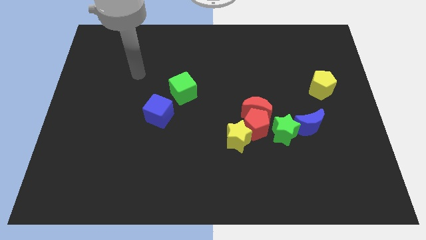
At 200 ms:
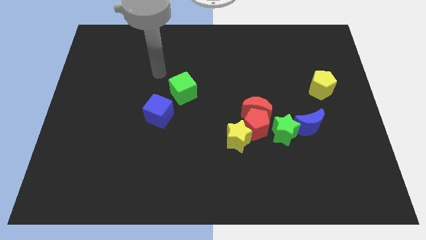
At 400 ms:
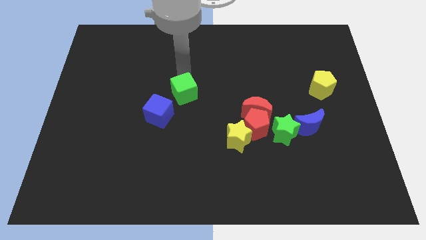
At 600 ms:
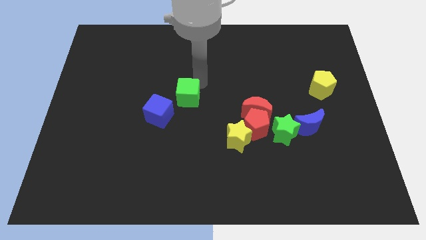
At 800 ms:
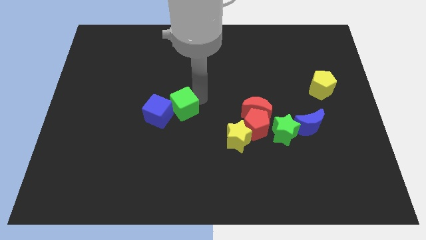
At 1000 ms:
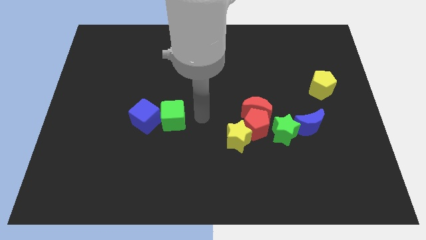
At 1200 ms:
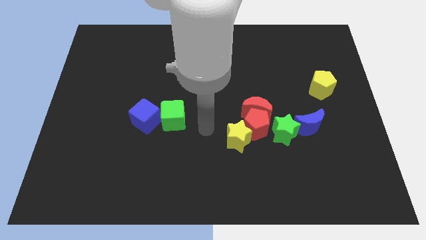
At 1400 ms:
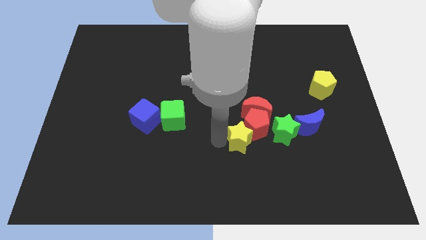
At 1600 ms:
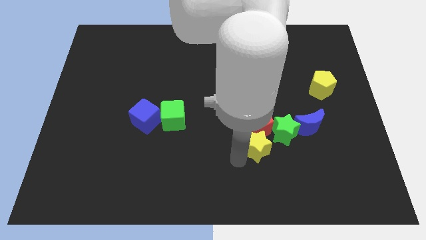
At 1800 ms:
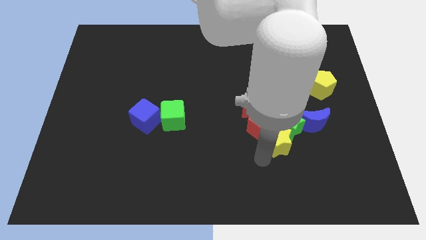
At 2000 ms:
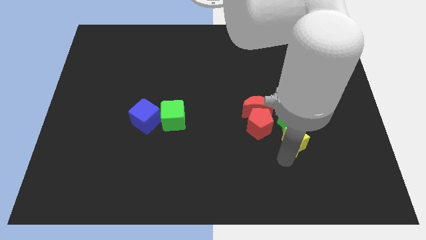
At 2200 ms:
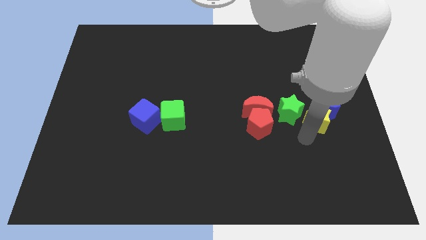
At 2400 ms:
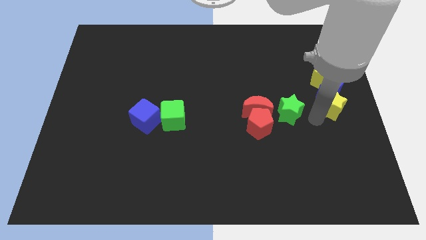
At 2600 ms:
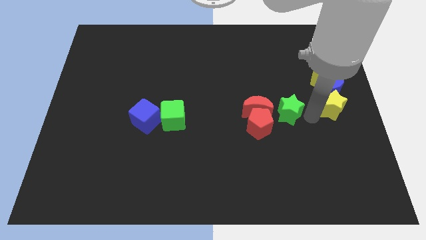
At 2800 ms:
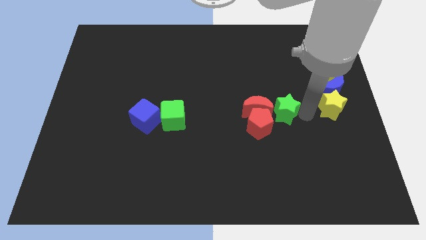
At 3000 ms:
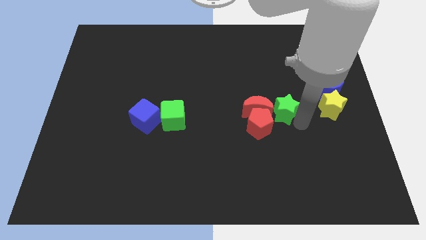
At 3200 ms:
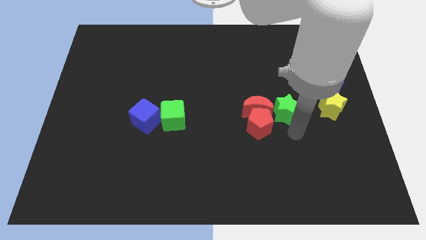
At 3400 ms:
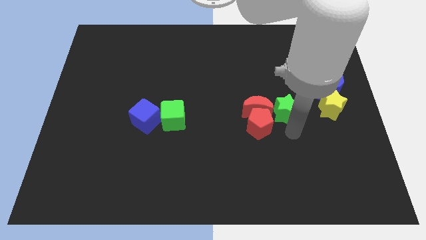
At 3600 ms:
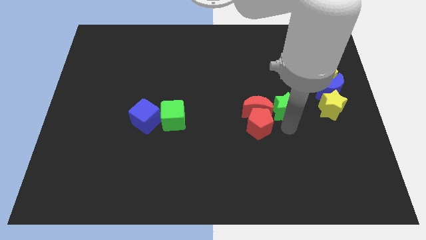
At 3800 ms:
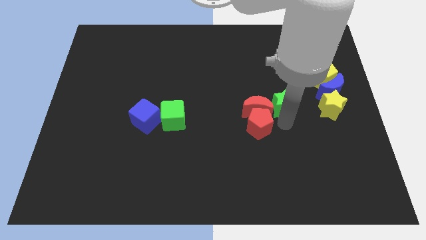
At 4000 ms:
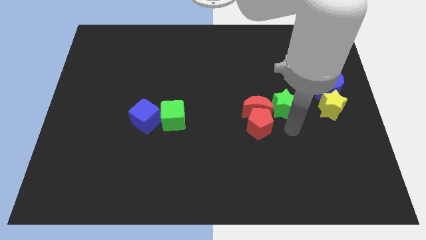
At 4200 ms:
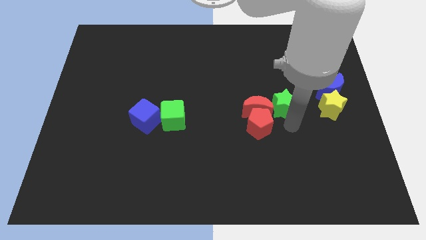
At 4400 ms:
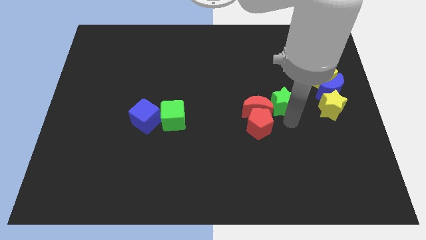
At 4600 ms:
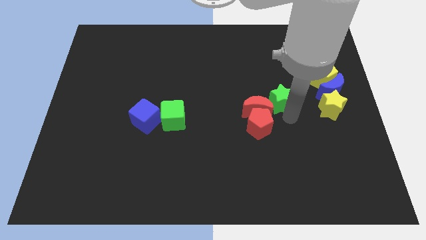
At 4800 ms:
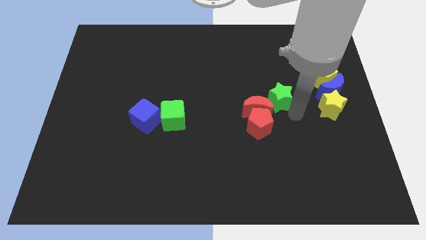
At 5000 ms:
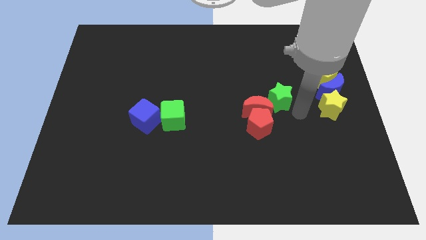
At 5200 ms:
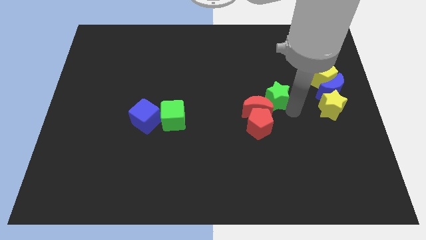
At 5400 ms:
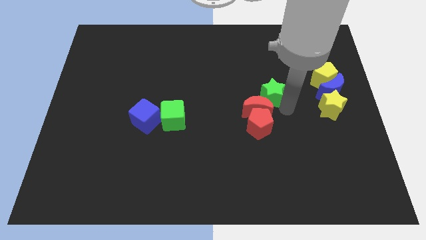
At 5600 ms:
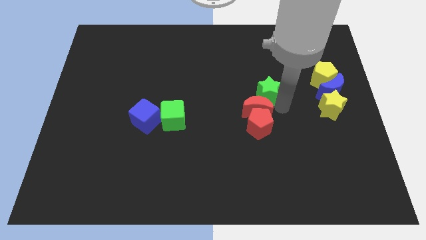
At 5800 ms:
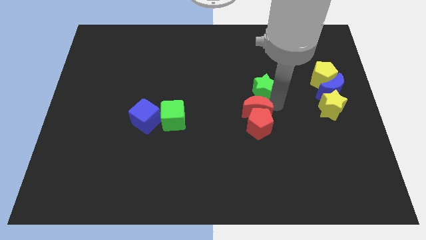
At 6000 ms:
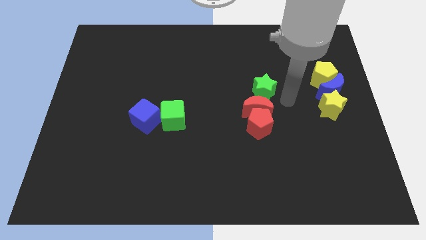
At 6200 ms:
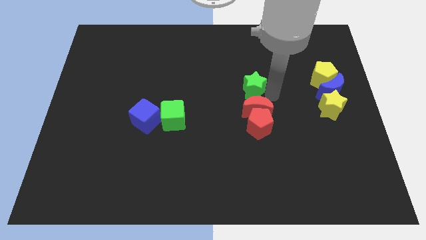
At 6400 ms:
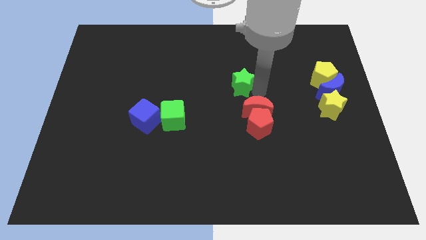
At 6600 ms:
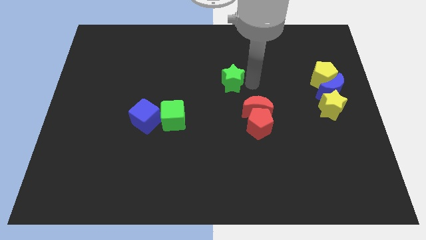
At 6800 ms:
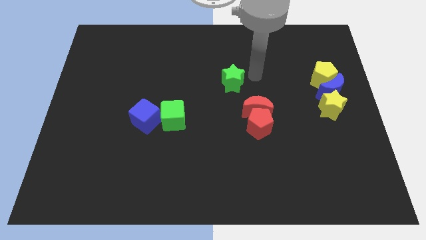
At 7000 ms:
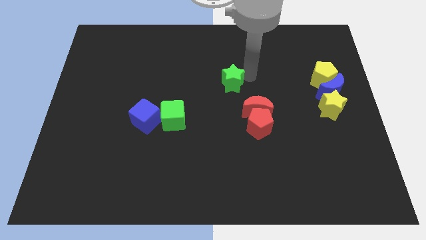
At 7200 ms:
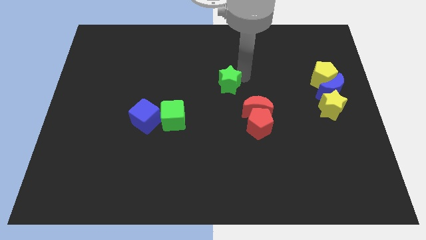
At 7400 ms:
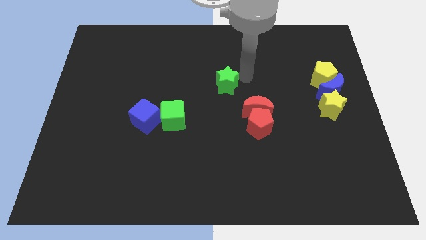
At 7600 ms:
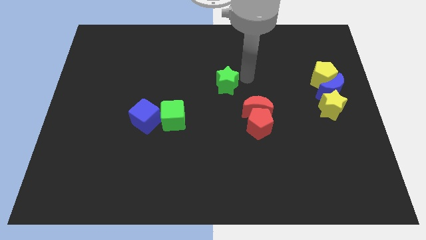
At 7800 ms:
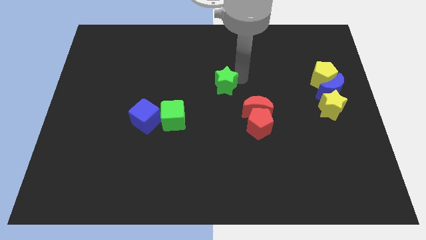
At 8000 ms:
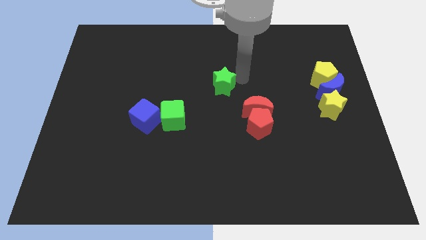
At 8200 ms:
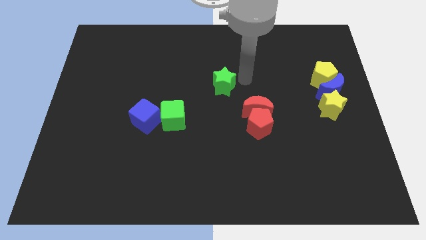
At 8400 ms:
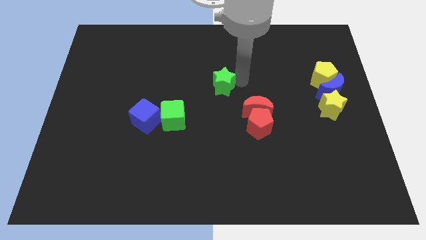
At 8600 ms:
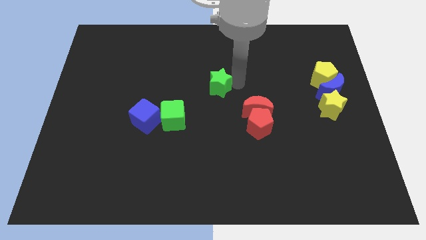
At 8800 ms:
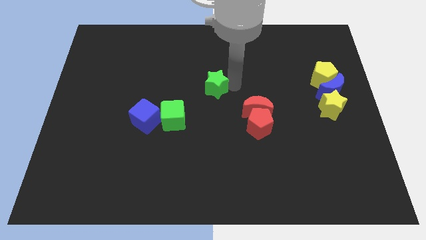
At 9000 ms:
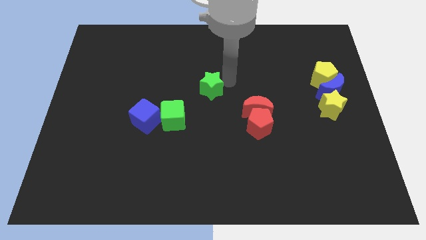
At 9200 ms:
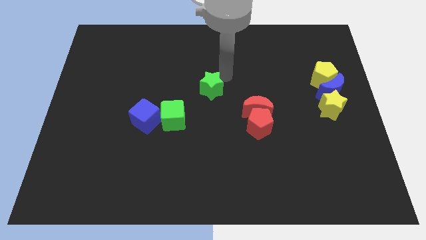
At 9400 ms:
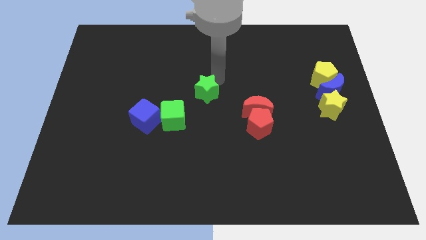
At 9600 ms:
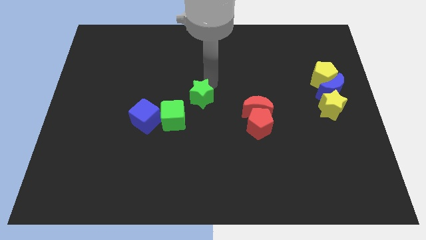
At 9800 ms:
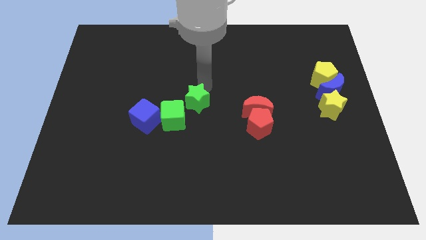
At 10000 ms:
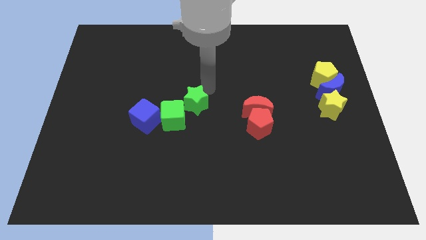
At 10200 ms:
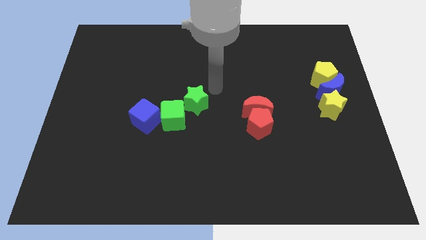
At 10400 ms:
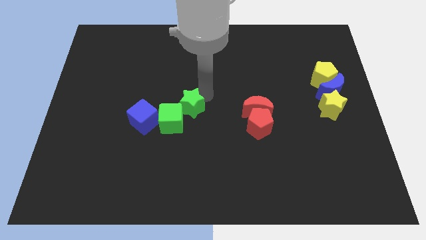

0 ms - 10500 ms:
move the green star next to the green cube

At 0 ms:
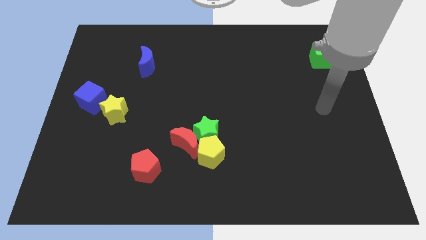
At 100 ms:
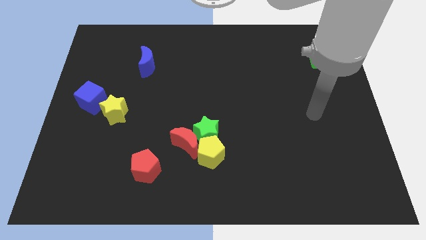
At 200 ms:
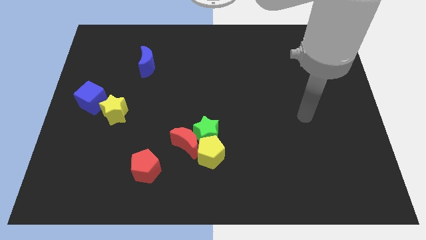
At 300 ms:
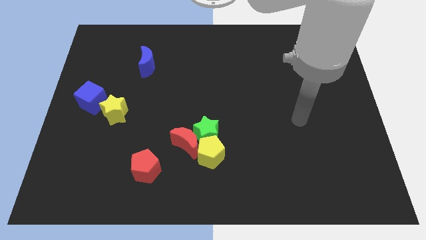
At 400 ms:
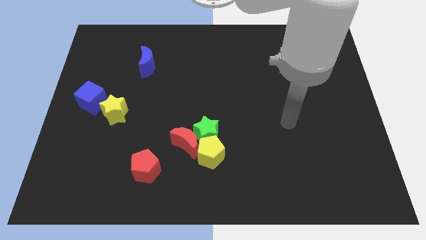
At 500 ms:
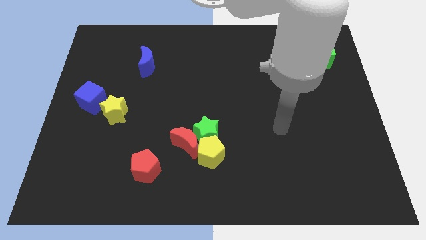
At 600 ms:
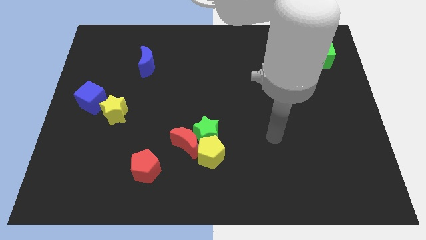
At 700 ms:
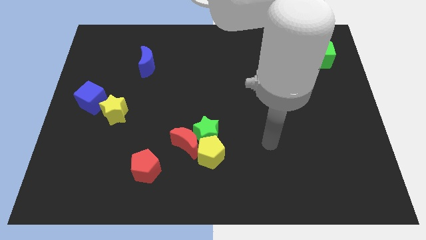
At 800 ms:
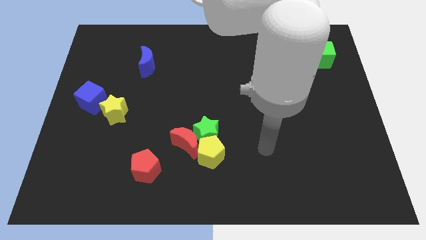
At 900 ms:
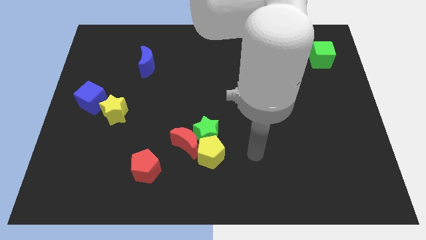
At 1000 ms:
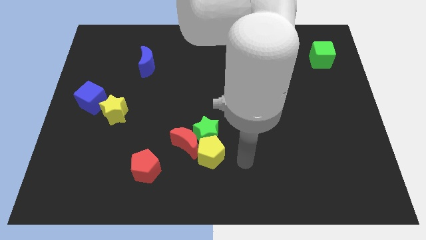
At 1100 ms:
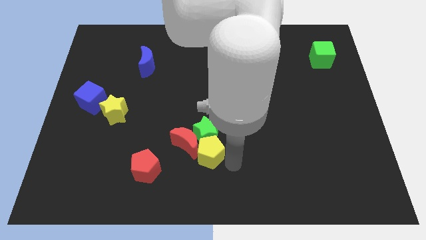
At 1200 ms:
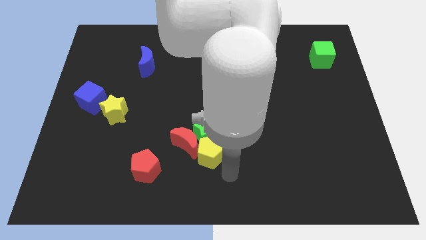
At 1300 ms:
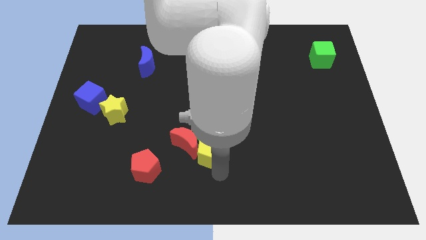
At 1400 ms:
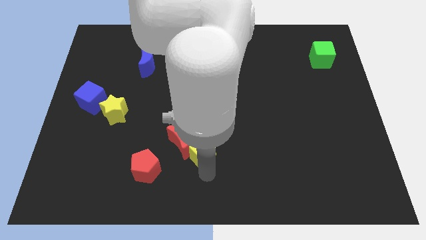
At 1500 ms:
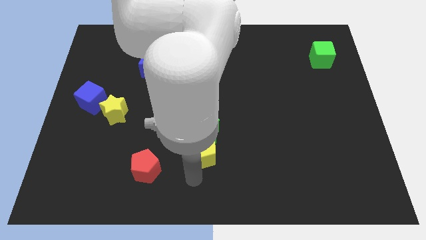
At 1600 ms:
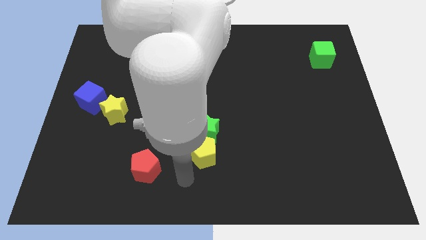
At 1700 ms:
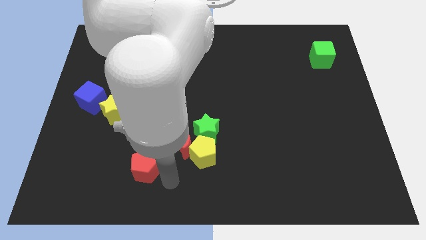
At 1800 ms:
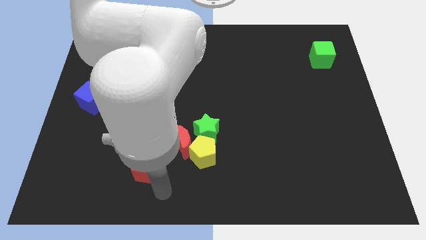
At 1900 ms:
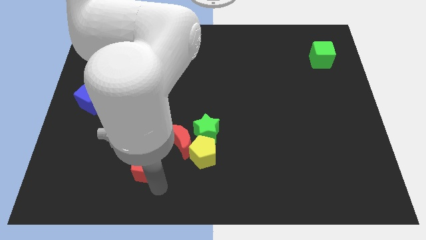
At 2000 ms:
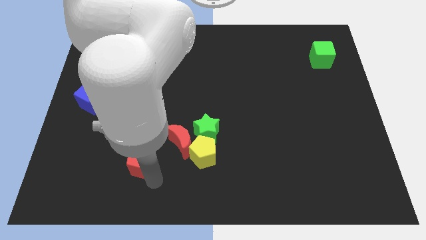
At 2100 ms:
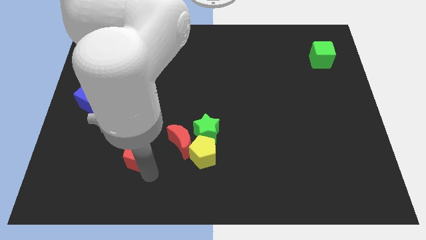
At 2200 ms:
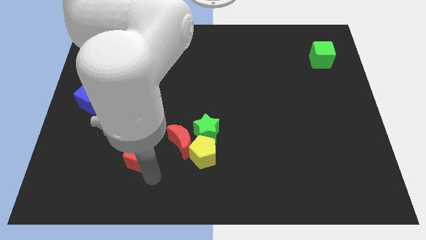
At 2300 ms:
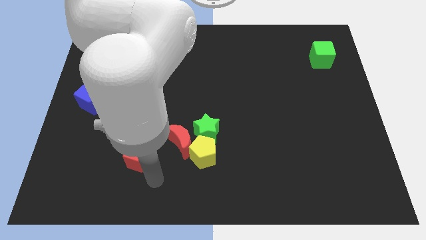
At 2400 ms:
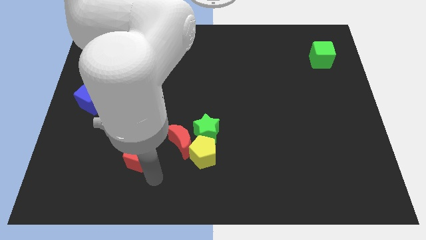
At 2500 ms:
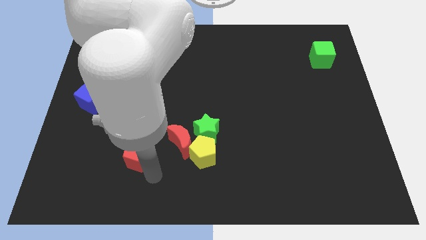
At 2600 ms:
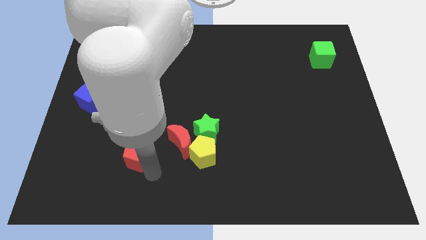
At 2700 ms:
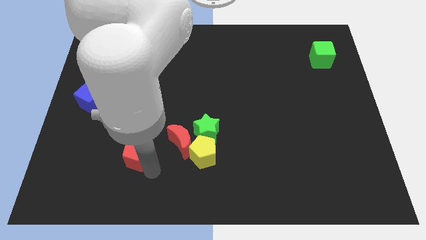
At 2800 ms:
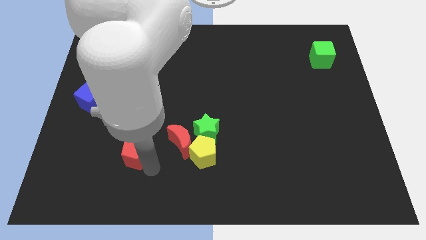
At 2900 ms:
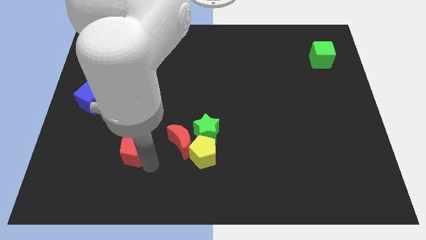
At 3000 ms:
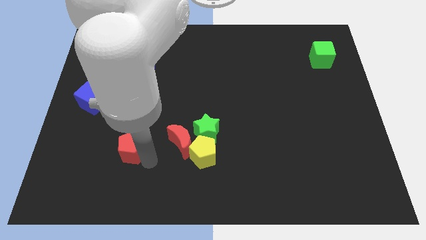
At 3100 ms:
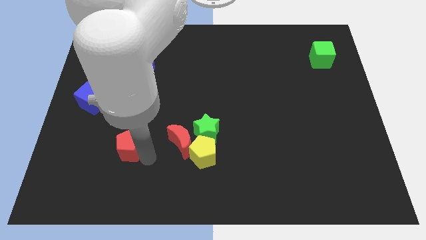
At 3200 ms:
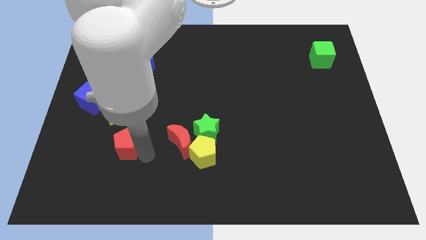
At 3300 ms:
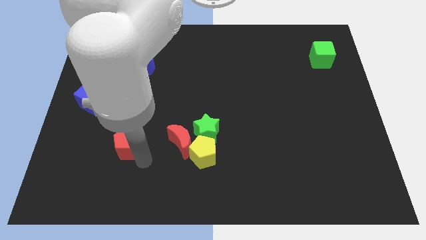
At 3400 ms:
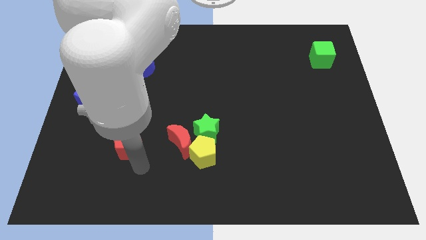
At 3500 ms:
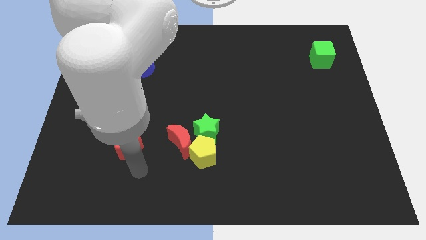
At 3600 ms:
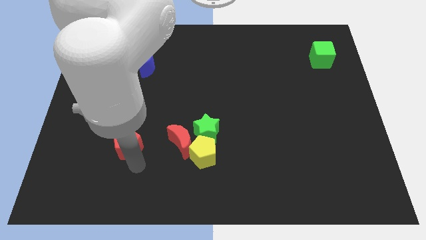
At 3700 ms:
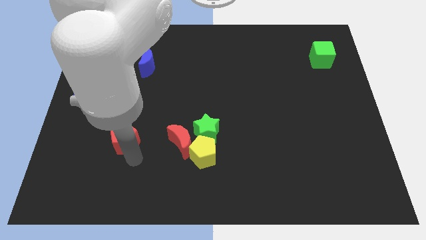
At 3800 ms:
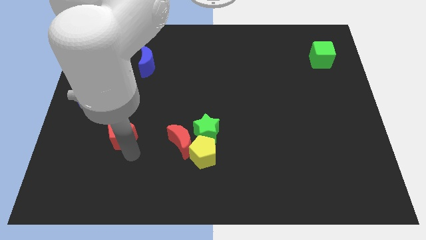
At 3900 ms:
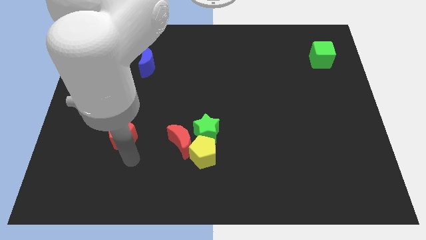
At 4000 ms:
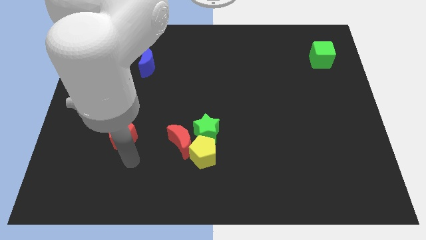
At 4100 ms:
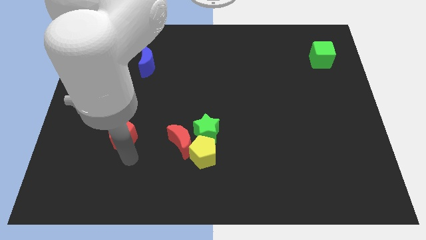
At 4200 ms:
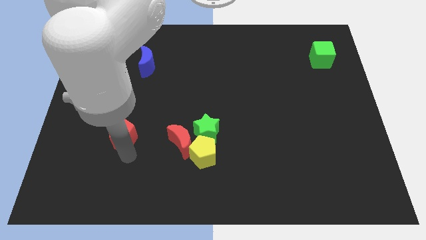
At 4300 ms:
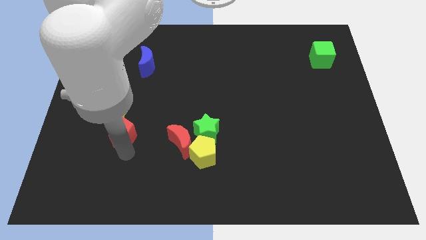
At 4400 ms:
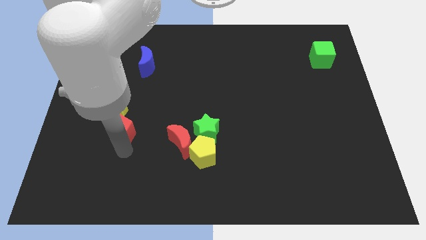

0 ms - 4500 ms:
put the red pentagon close to the yellow star
